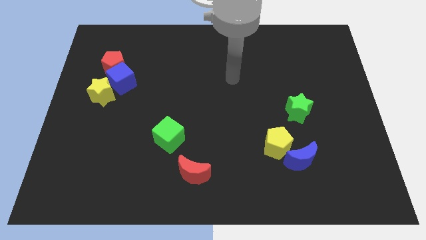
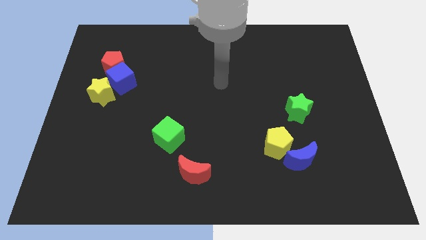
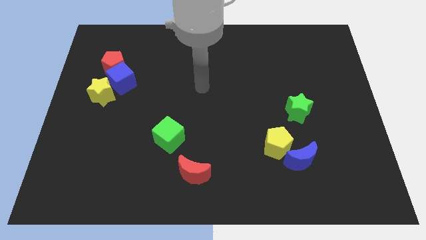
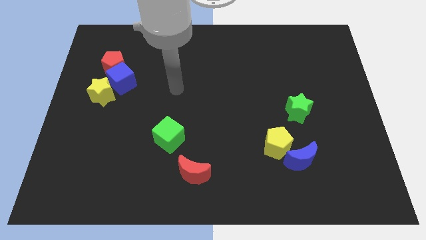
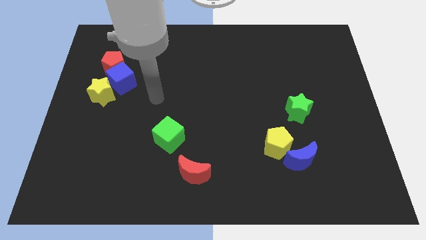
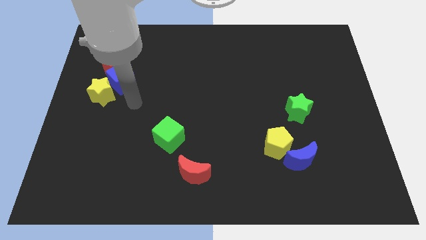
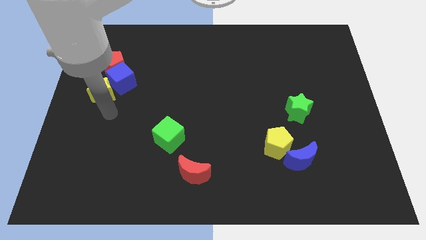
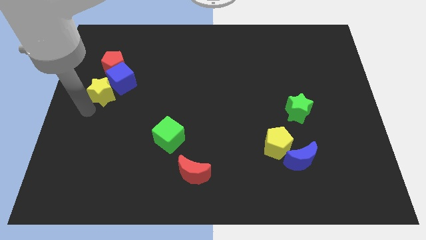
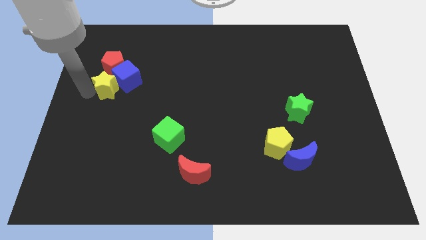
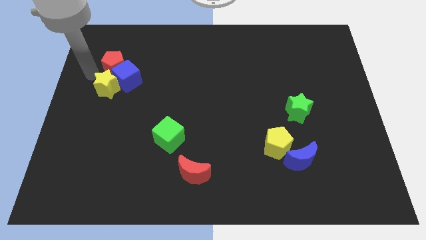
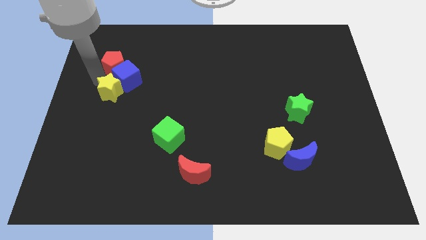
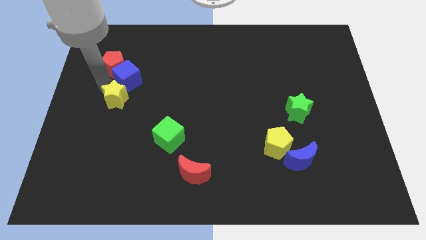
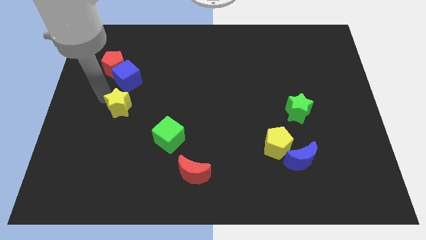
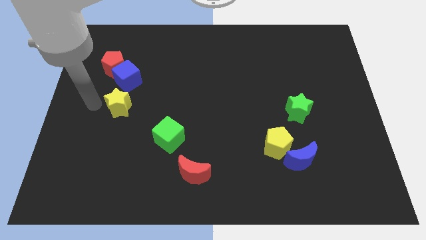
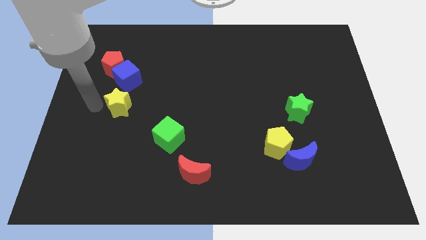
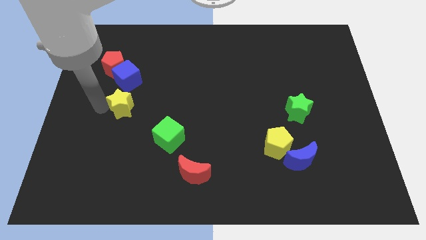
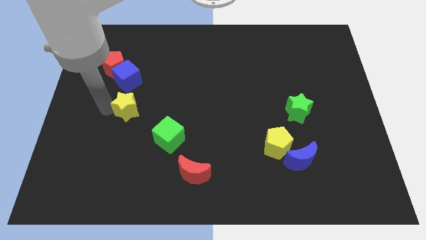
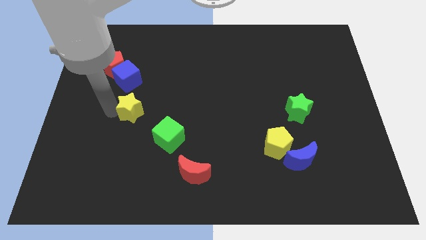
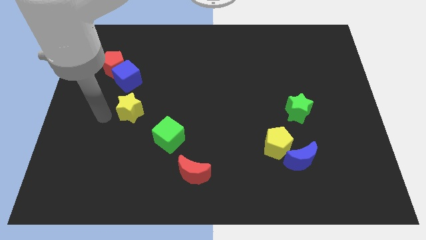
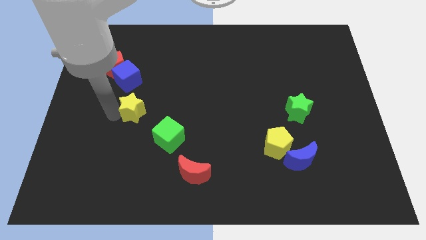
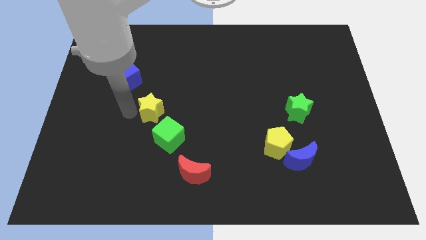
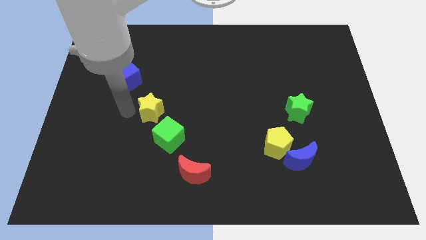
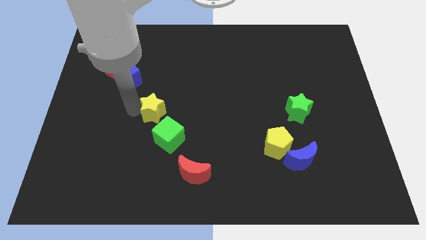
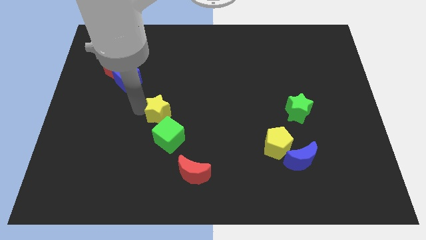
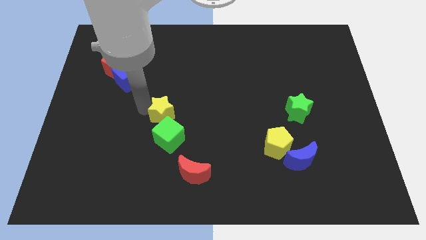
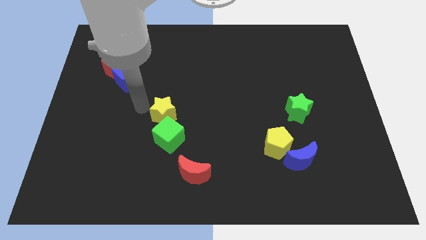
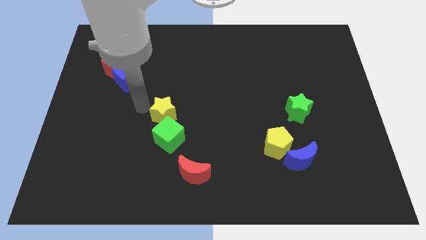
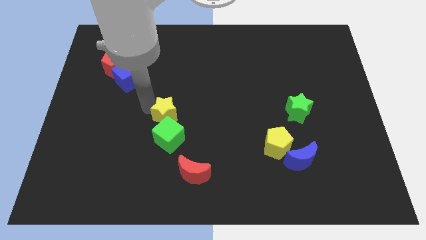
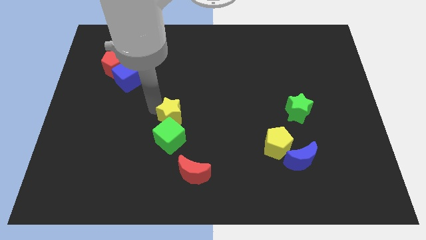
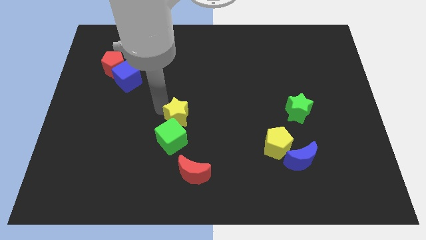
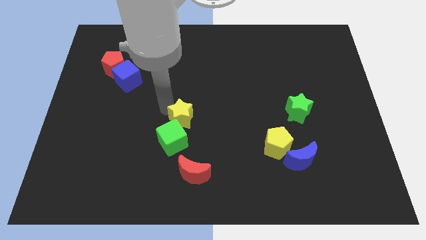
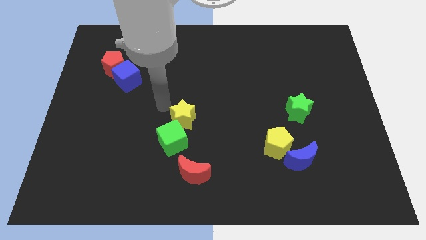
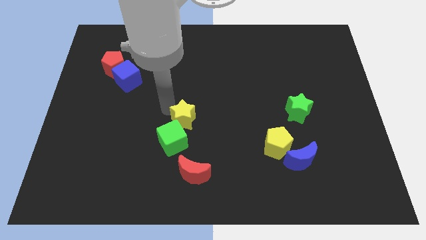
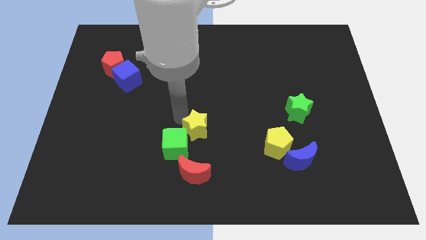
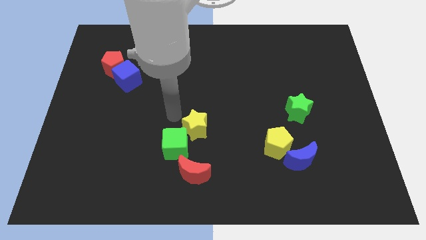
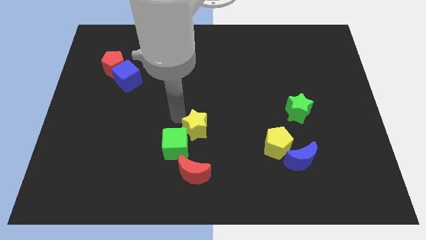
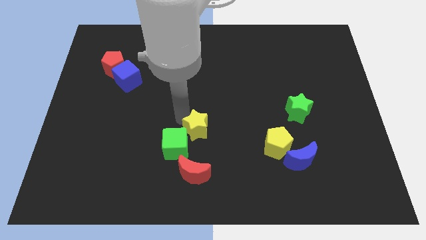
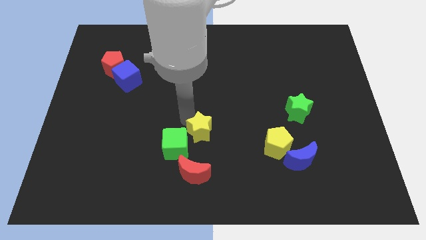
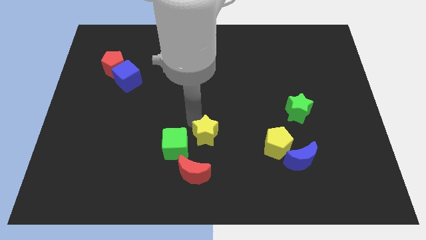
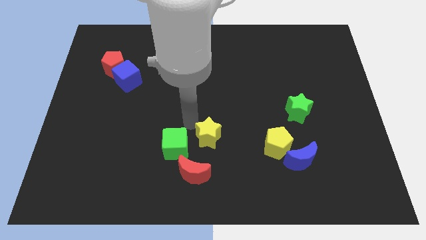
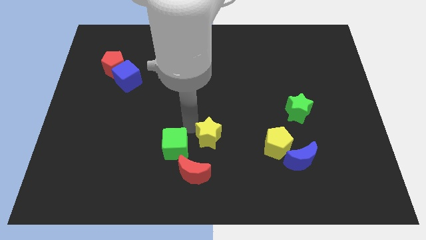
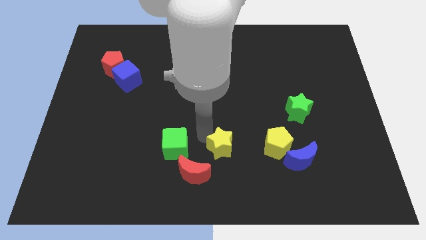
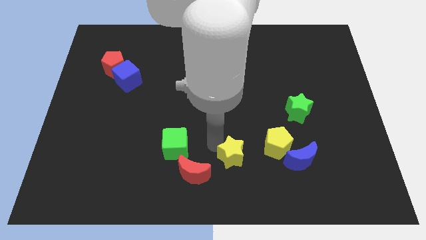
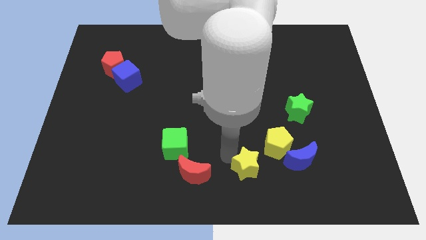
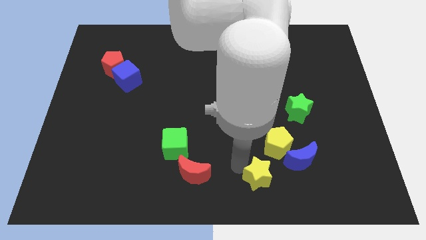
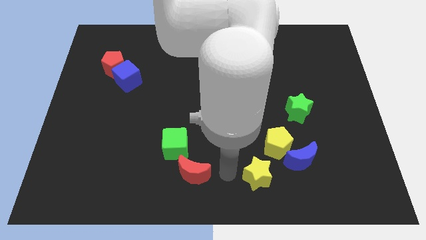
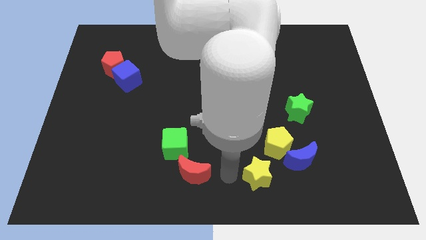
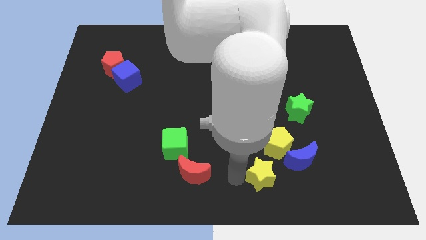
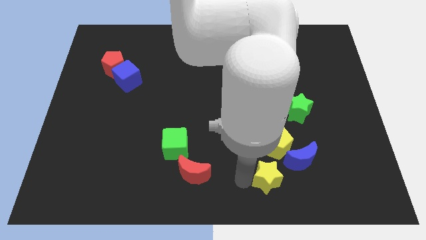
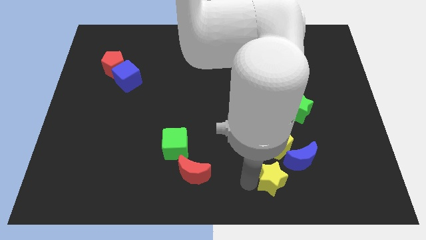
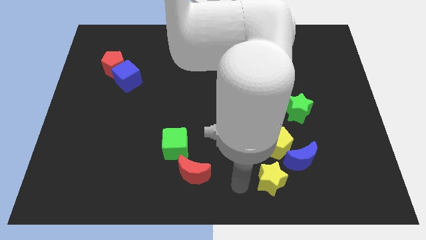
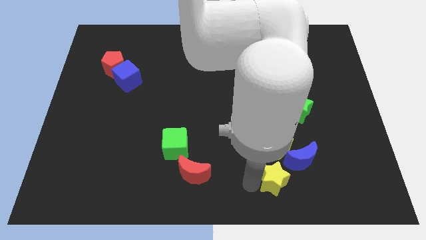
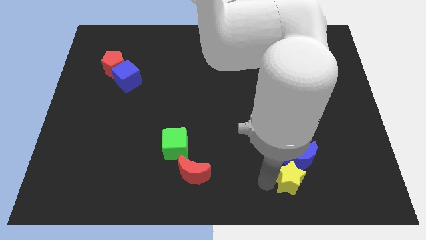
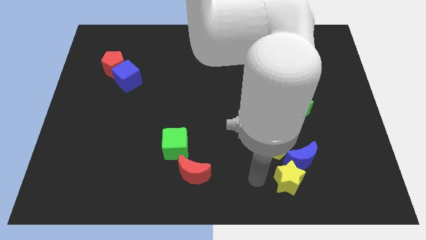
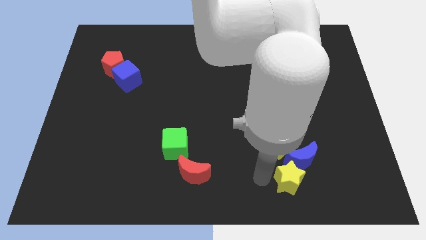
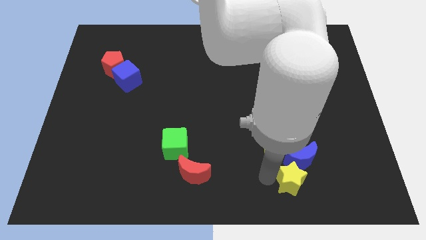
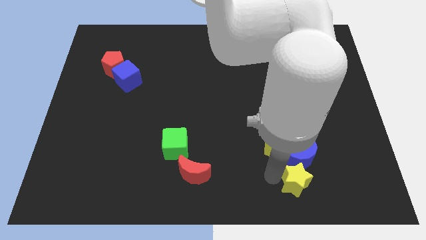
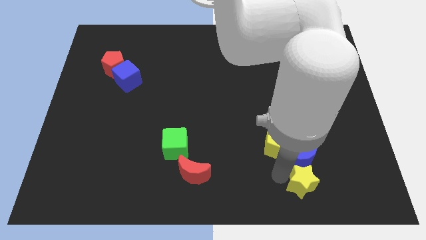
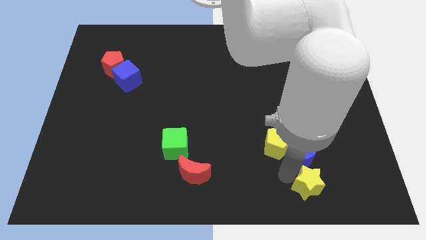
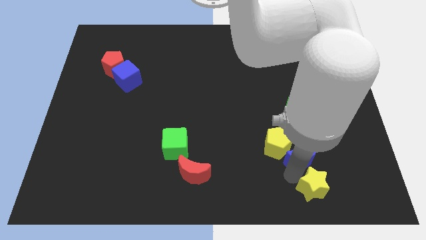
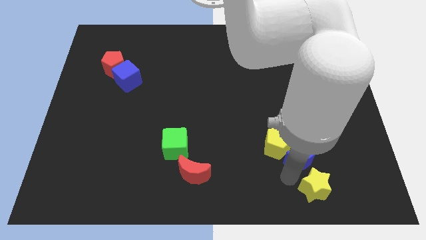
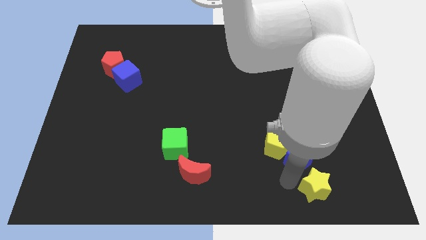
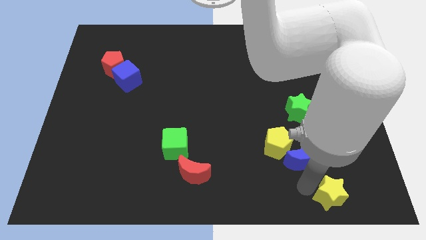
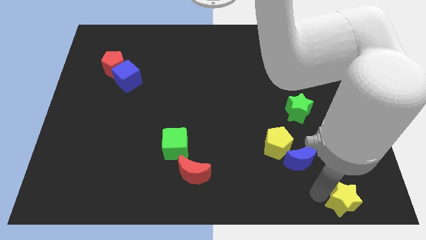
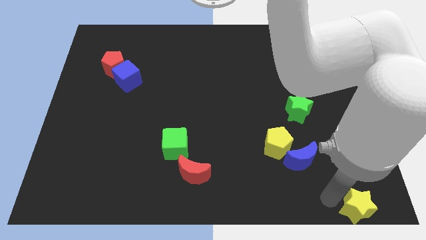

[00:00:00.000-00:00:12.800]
slide the yellow star to the lower right corner
